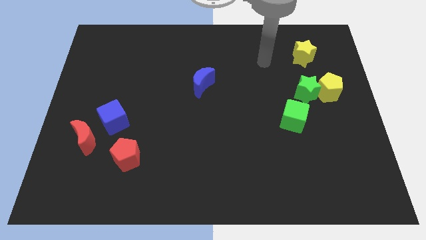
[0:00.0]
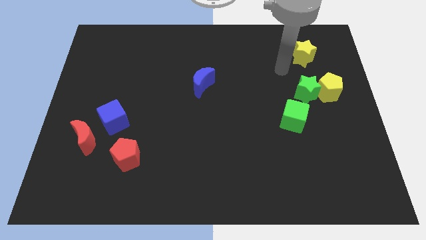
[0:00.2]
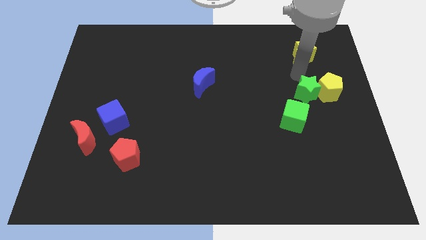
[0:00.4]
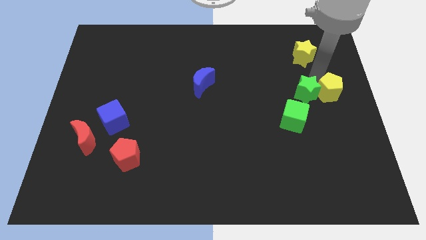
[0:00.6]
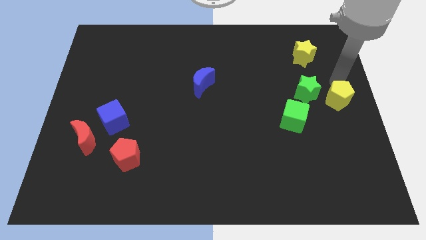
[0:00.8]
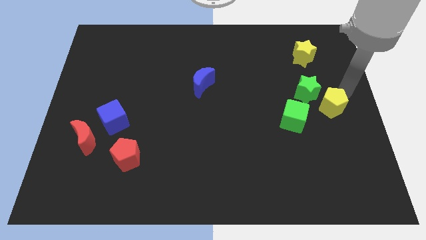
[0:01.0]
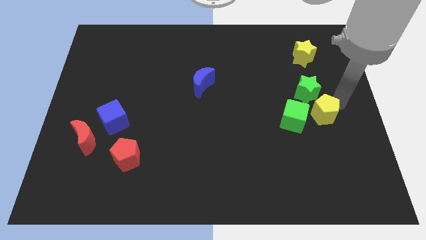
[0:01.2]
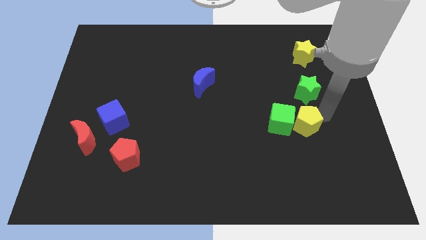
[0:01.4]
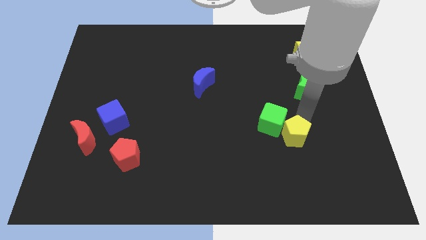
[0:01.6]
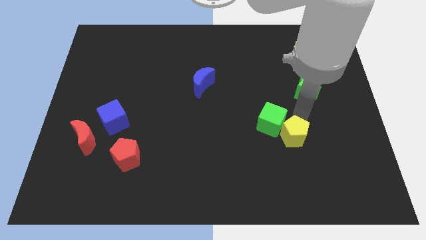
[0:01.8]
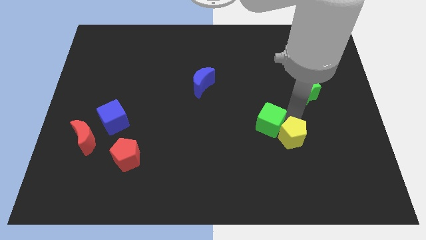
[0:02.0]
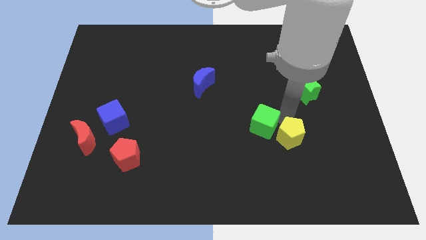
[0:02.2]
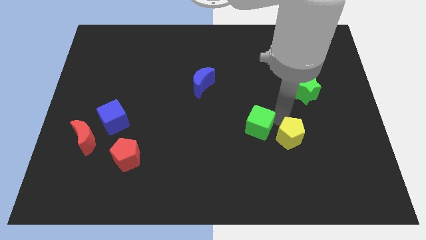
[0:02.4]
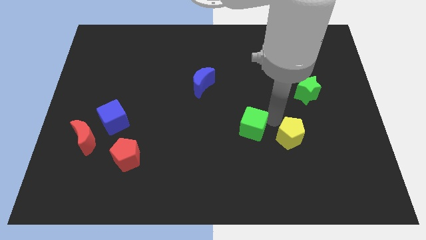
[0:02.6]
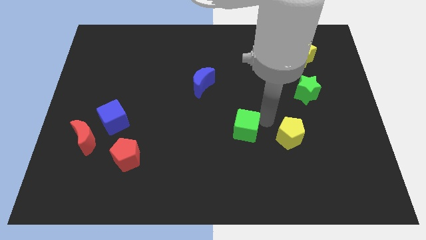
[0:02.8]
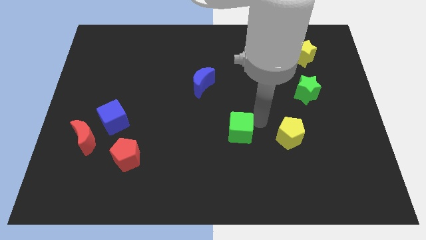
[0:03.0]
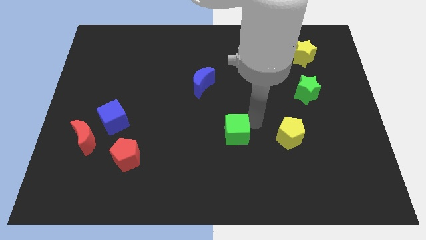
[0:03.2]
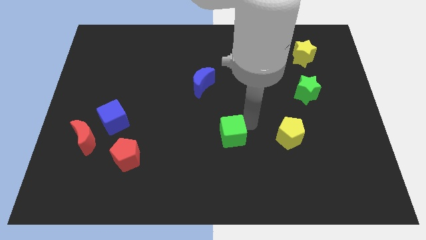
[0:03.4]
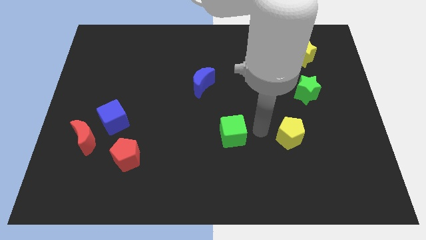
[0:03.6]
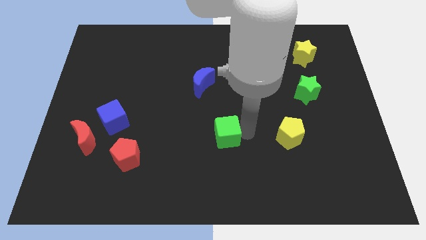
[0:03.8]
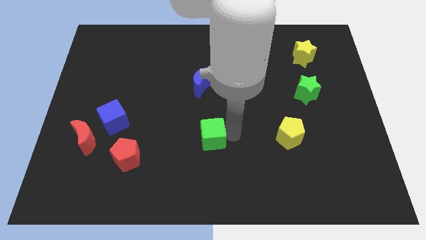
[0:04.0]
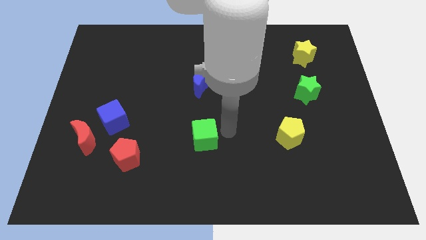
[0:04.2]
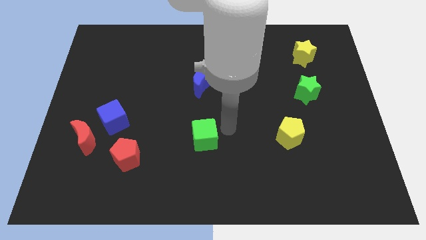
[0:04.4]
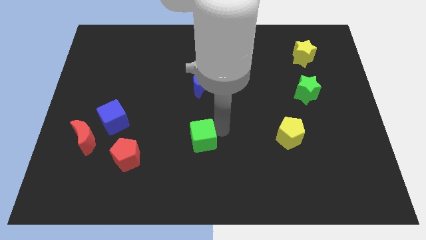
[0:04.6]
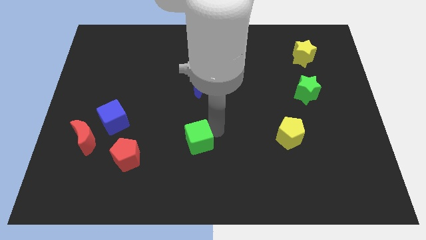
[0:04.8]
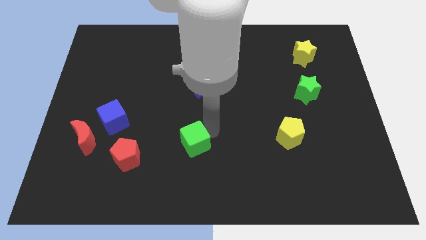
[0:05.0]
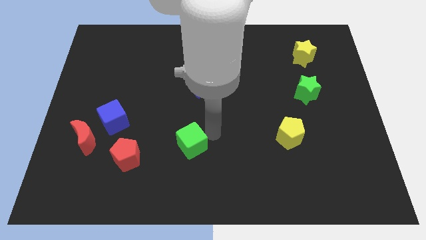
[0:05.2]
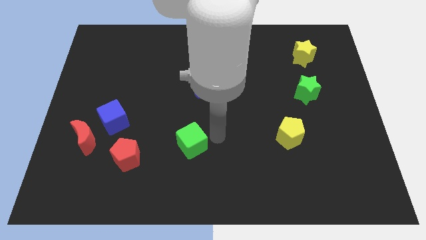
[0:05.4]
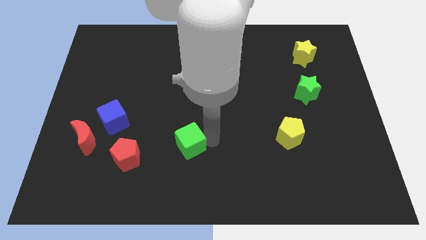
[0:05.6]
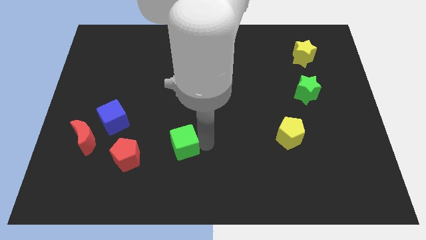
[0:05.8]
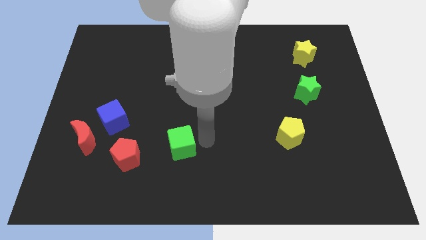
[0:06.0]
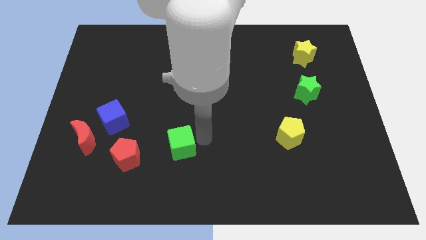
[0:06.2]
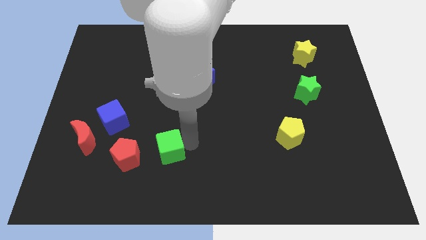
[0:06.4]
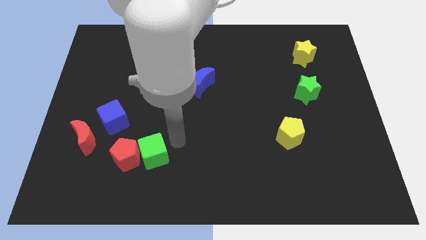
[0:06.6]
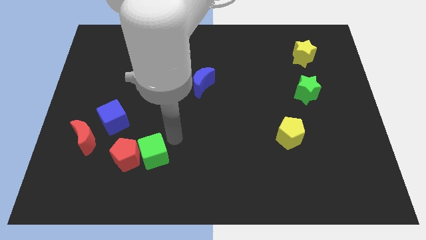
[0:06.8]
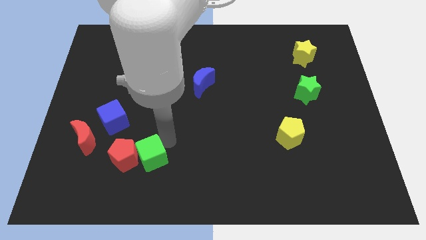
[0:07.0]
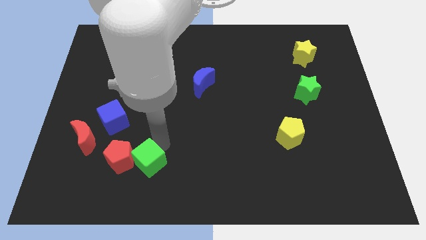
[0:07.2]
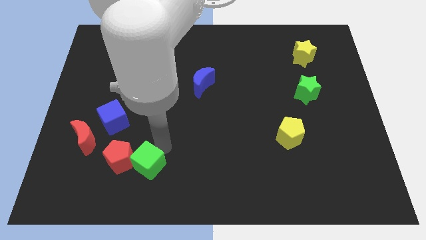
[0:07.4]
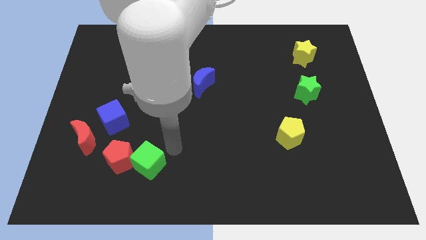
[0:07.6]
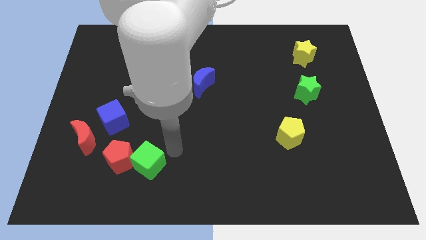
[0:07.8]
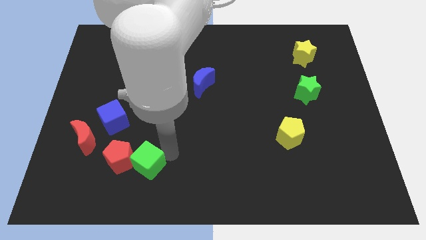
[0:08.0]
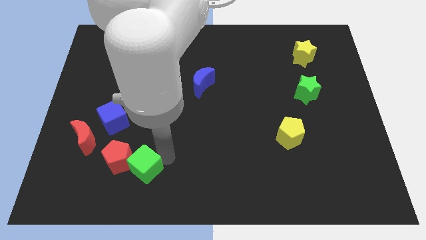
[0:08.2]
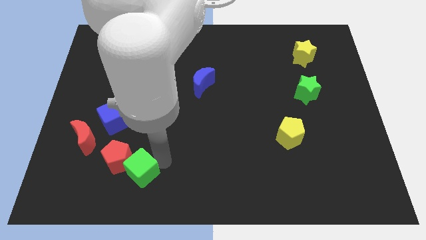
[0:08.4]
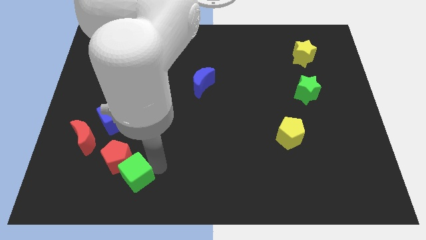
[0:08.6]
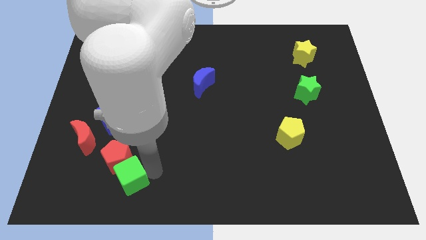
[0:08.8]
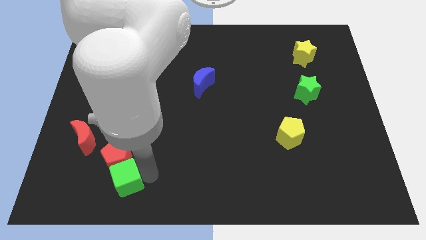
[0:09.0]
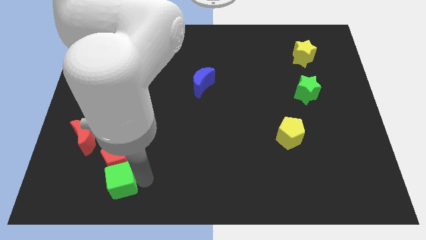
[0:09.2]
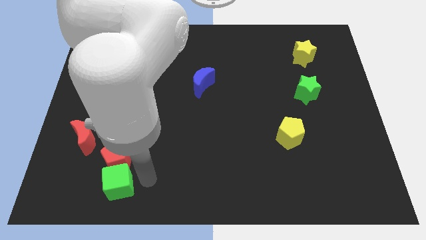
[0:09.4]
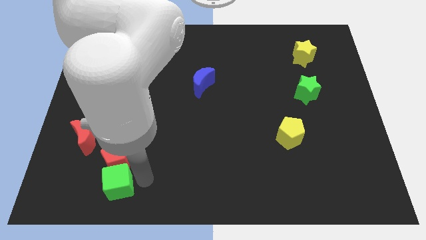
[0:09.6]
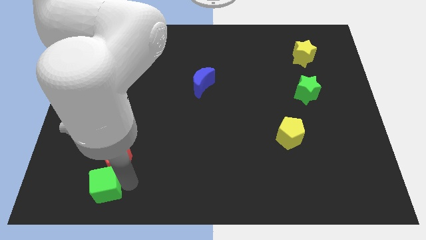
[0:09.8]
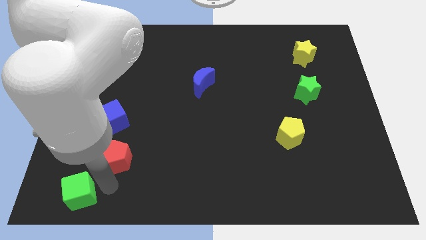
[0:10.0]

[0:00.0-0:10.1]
push the green cube to the bottom left

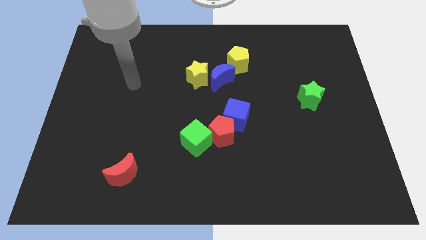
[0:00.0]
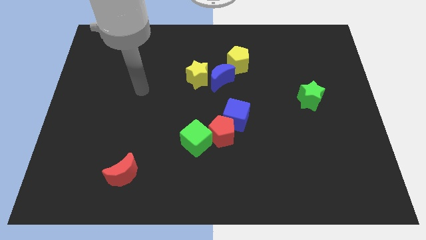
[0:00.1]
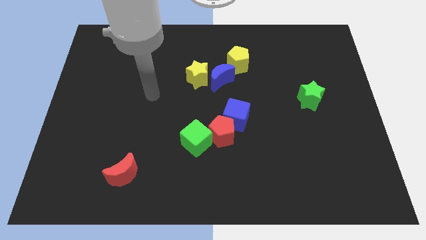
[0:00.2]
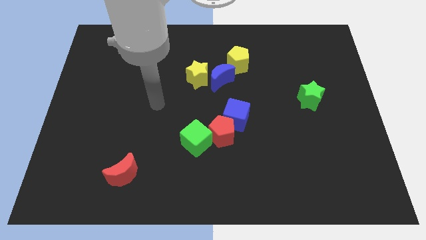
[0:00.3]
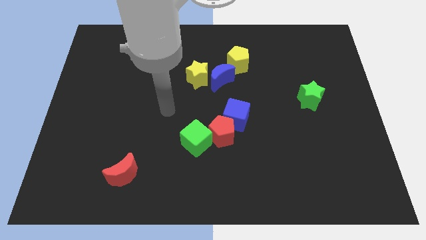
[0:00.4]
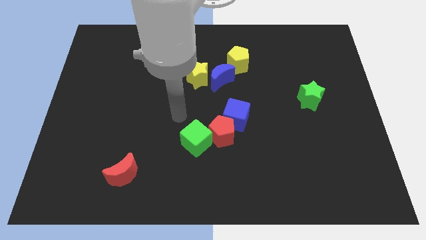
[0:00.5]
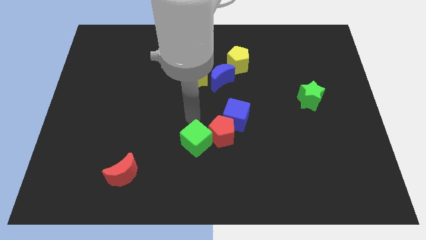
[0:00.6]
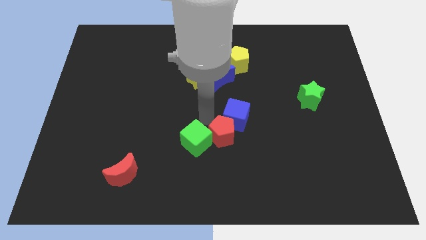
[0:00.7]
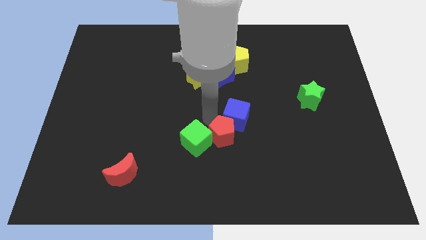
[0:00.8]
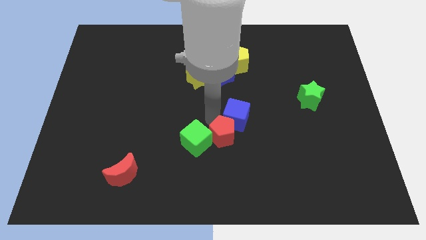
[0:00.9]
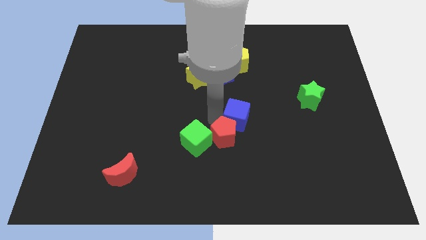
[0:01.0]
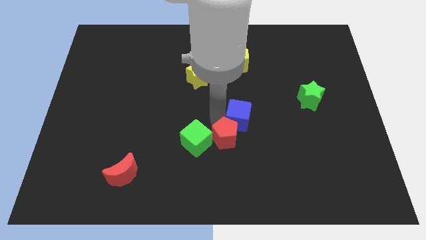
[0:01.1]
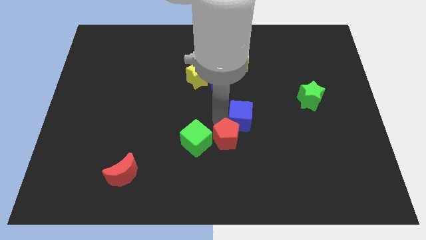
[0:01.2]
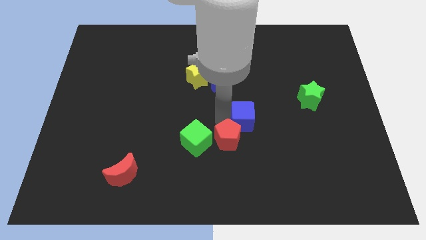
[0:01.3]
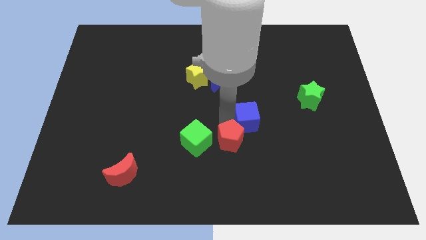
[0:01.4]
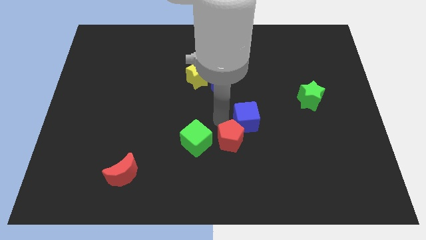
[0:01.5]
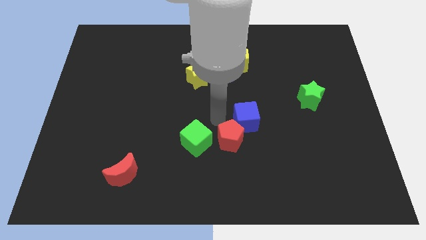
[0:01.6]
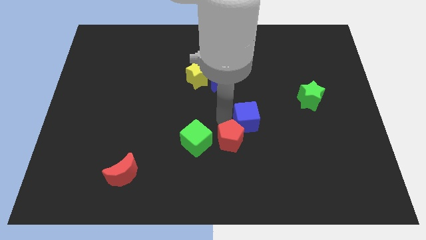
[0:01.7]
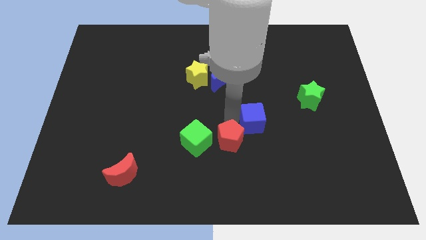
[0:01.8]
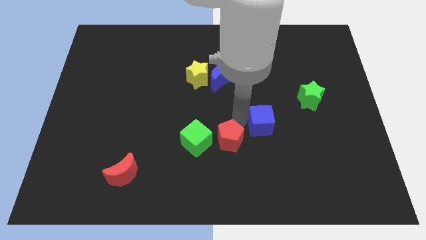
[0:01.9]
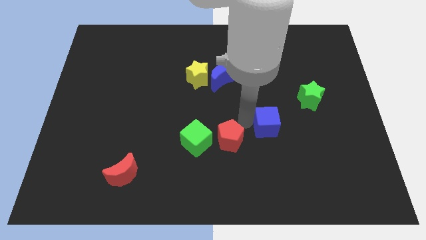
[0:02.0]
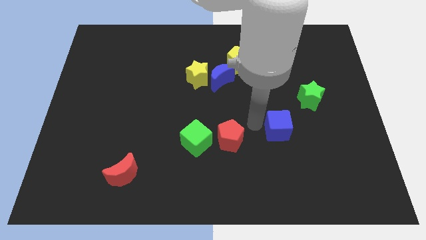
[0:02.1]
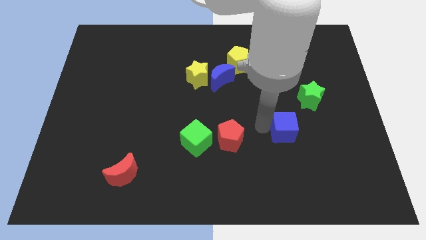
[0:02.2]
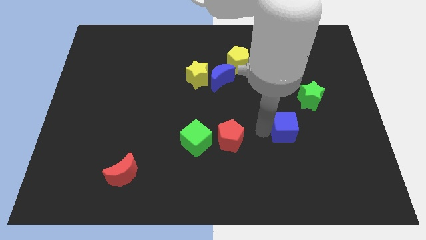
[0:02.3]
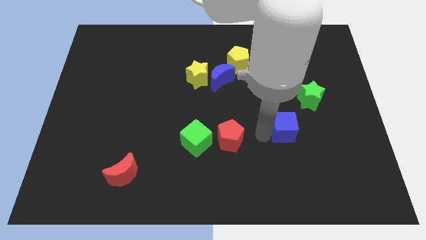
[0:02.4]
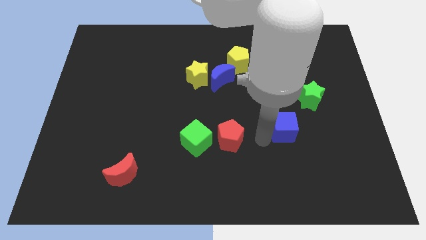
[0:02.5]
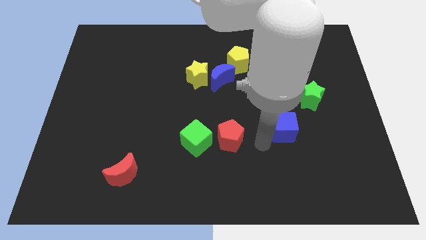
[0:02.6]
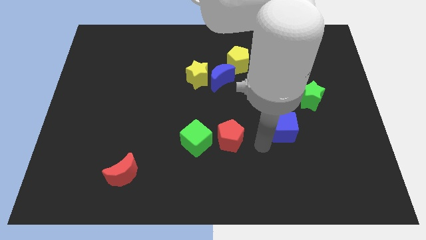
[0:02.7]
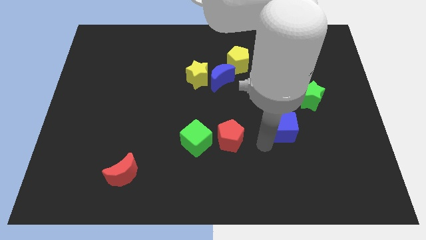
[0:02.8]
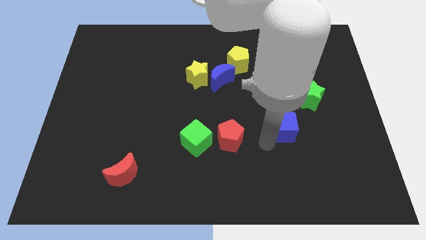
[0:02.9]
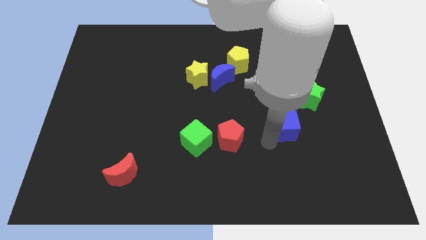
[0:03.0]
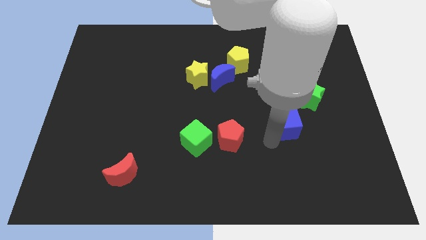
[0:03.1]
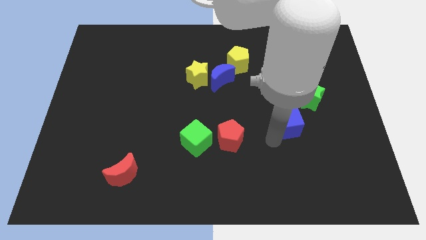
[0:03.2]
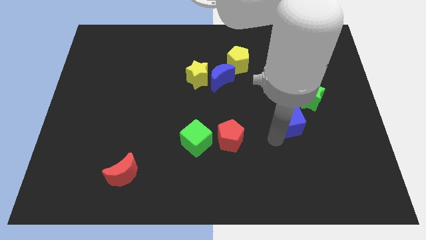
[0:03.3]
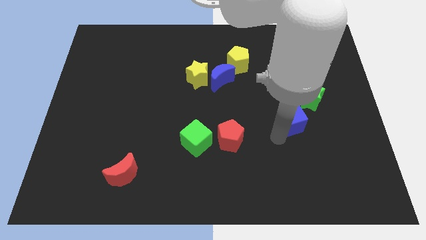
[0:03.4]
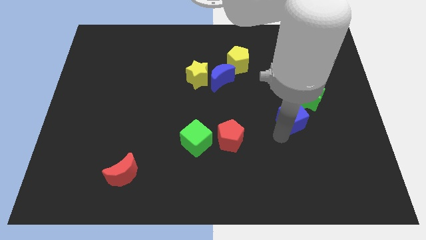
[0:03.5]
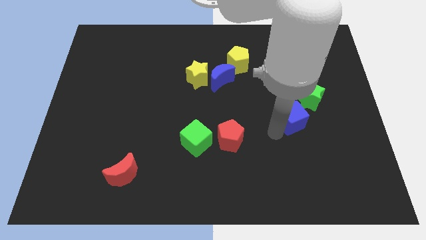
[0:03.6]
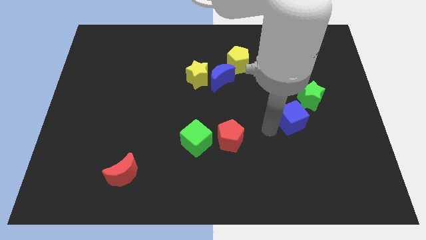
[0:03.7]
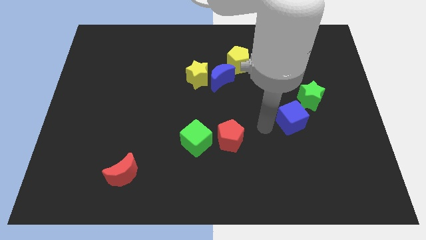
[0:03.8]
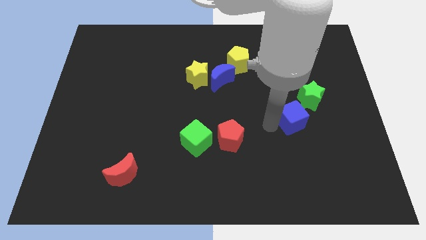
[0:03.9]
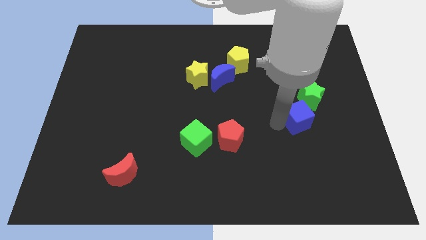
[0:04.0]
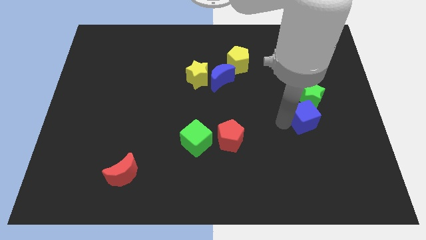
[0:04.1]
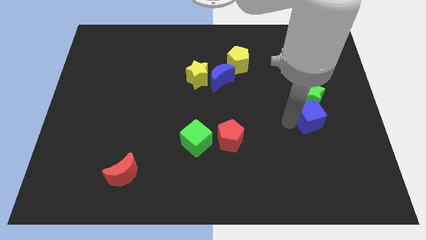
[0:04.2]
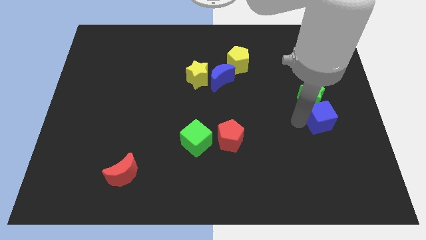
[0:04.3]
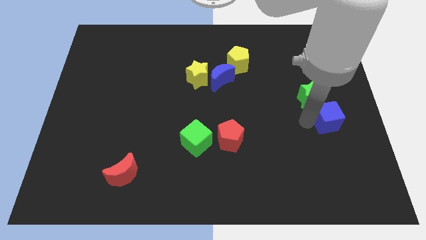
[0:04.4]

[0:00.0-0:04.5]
put the blue cube to the right side of the board
